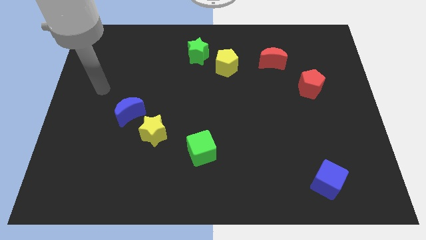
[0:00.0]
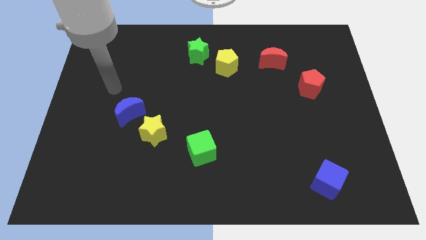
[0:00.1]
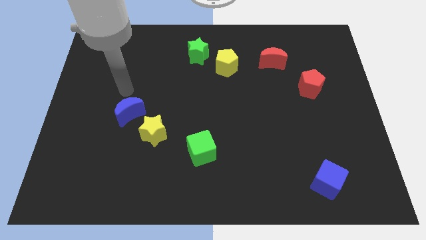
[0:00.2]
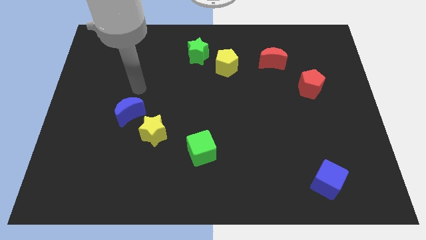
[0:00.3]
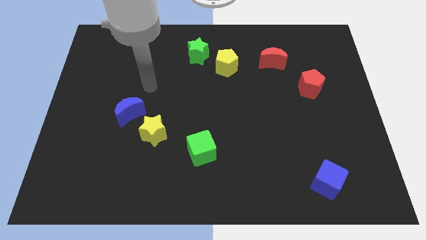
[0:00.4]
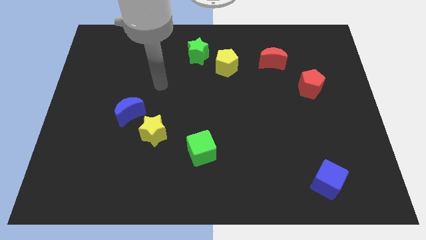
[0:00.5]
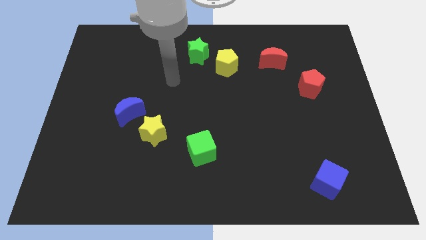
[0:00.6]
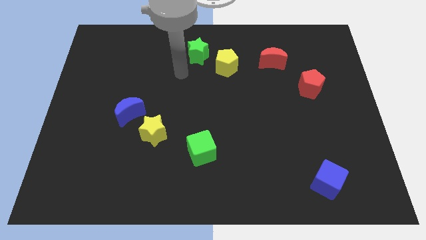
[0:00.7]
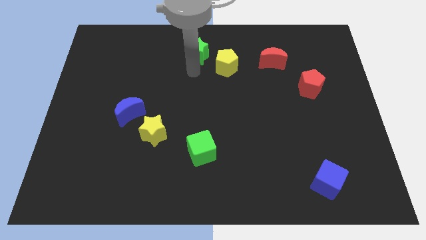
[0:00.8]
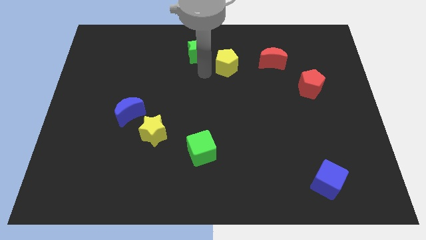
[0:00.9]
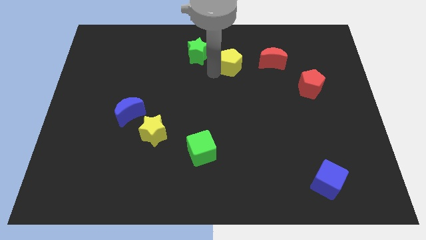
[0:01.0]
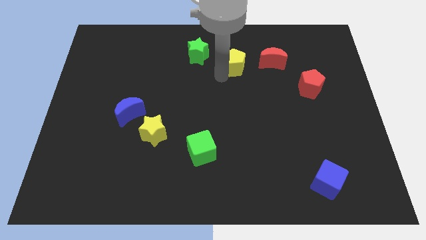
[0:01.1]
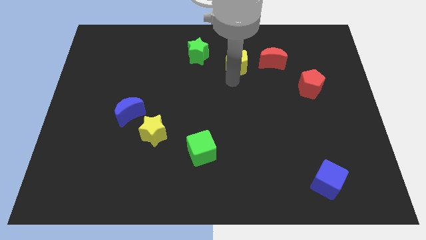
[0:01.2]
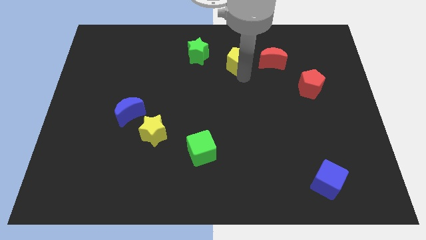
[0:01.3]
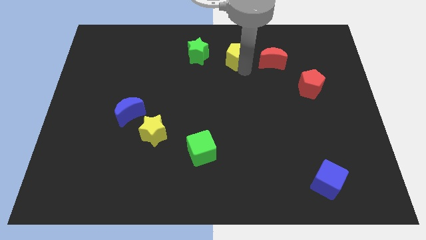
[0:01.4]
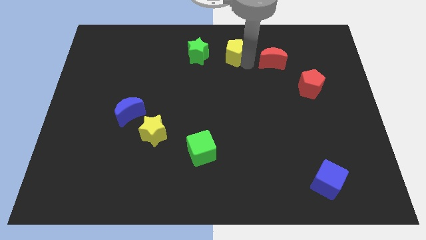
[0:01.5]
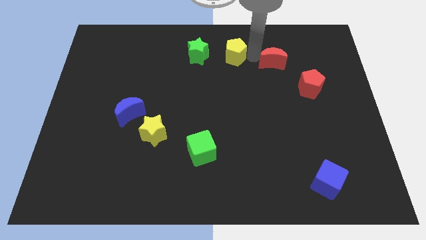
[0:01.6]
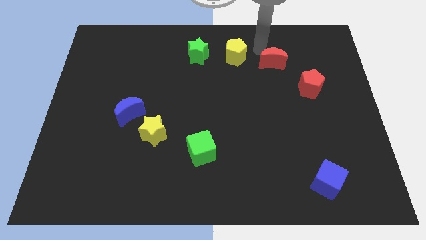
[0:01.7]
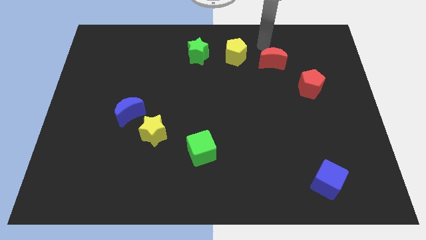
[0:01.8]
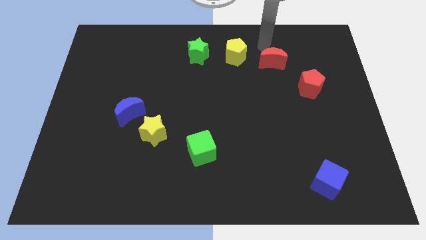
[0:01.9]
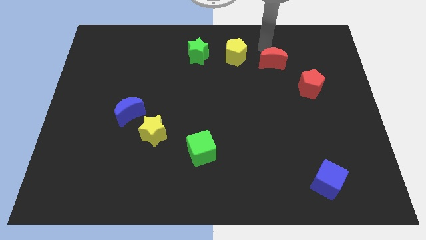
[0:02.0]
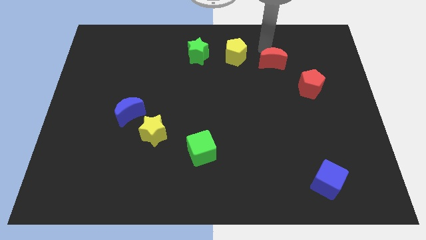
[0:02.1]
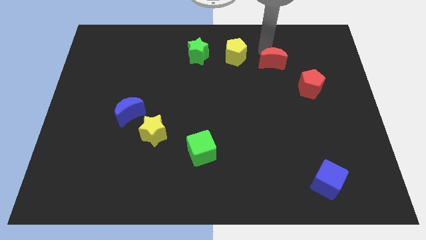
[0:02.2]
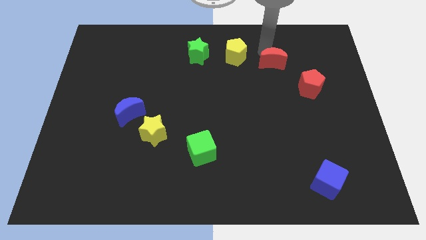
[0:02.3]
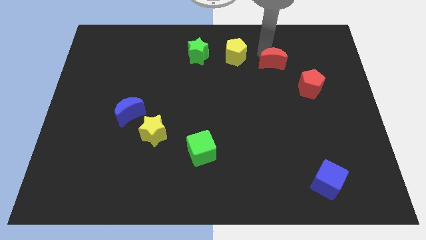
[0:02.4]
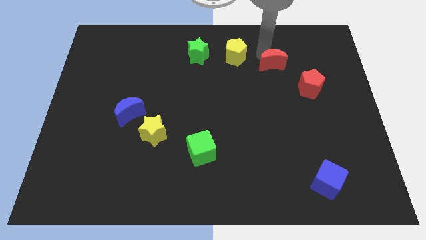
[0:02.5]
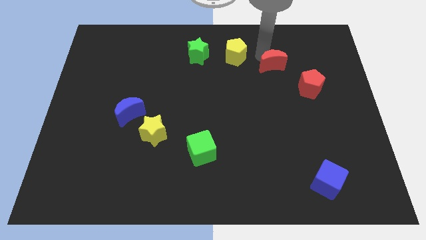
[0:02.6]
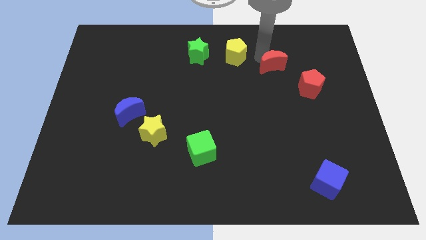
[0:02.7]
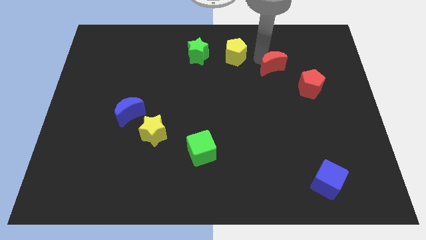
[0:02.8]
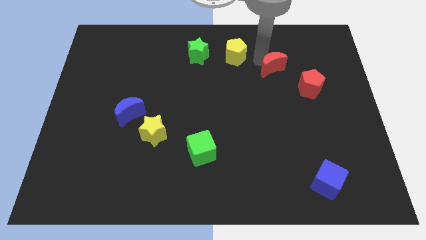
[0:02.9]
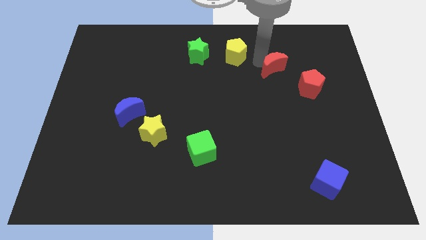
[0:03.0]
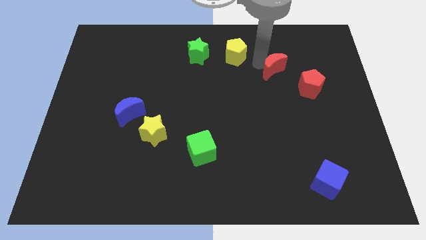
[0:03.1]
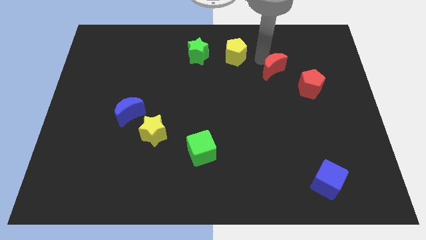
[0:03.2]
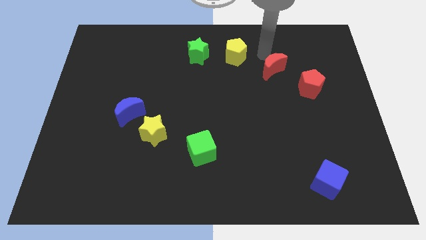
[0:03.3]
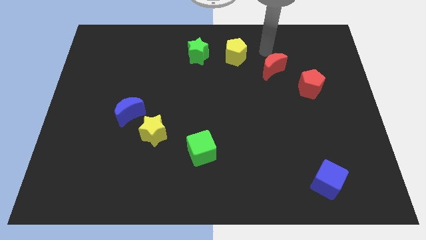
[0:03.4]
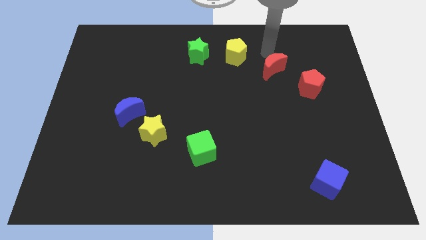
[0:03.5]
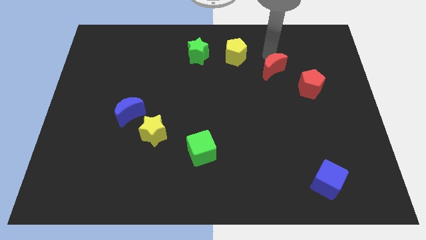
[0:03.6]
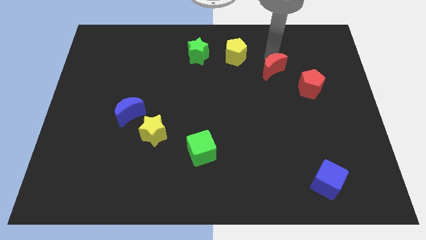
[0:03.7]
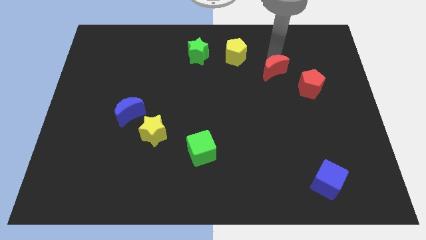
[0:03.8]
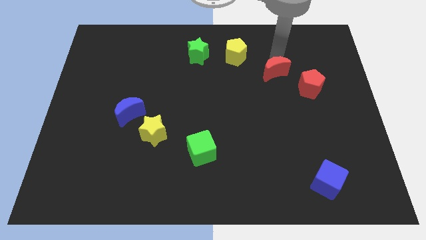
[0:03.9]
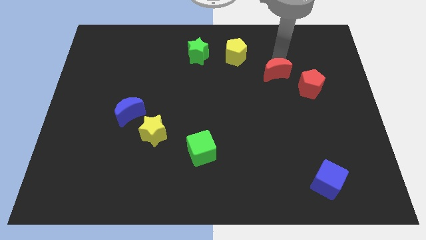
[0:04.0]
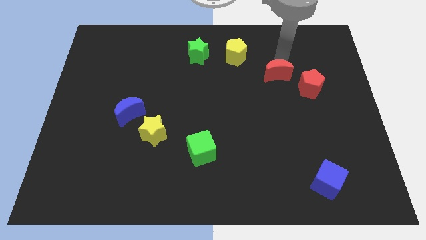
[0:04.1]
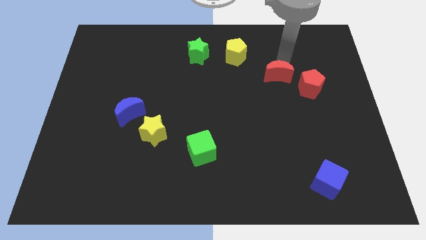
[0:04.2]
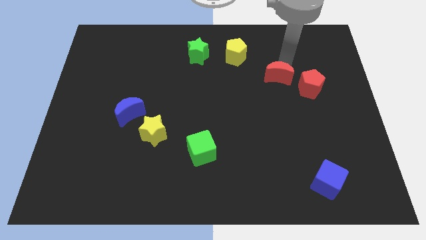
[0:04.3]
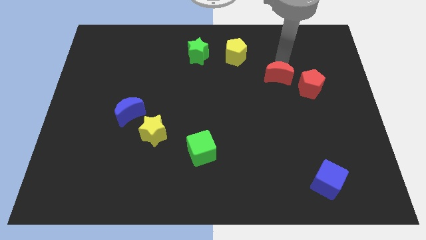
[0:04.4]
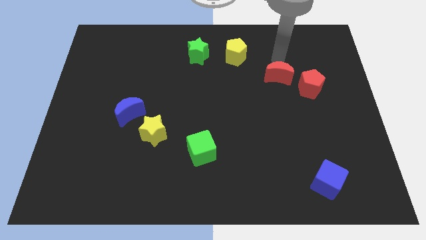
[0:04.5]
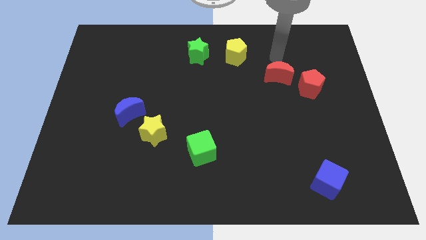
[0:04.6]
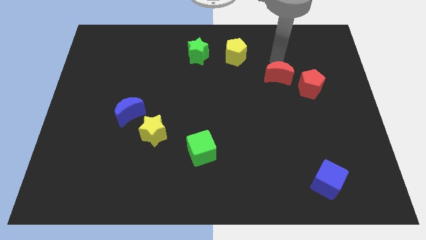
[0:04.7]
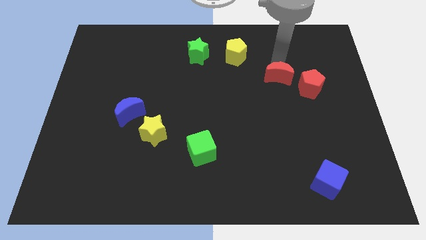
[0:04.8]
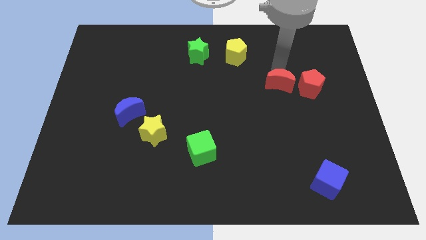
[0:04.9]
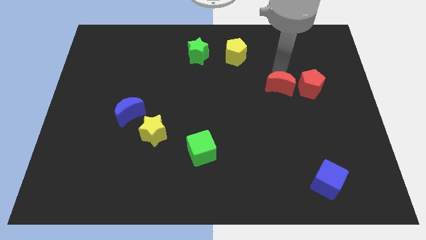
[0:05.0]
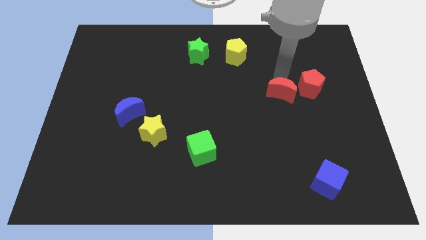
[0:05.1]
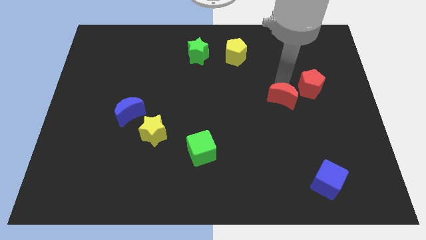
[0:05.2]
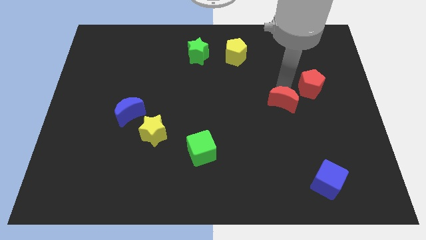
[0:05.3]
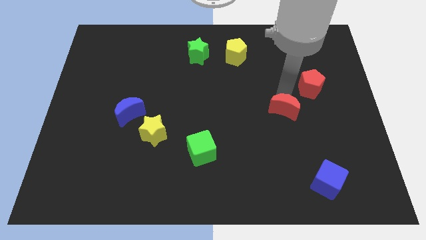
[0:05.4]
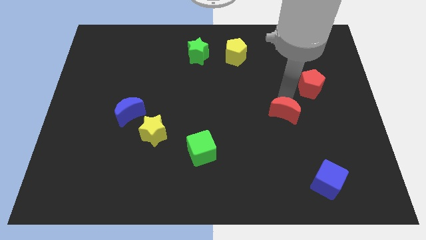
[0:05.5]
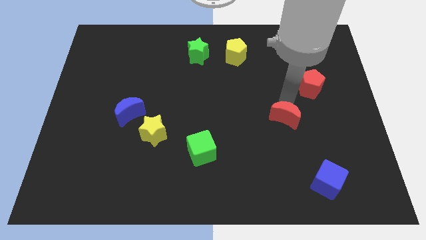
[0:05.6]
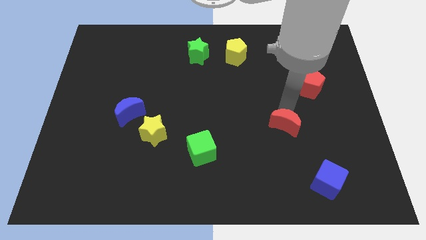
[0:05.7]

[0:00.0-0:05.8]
slide the red moon downwards

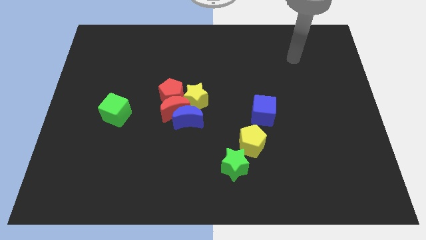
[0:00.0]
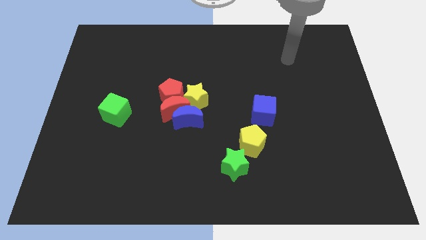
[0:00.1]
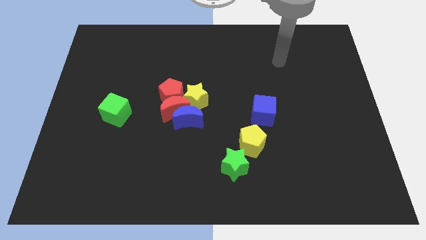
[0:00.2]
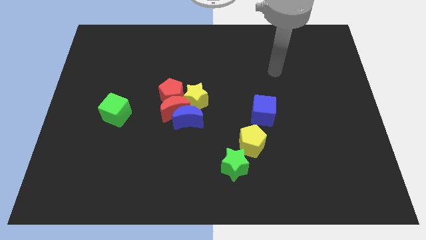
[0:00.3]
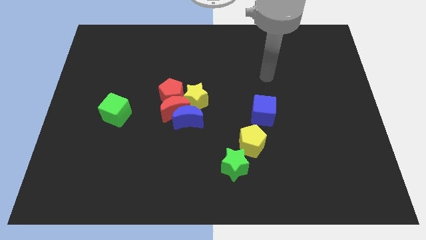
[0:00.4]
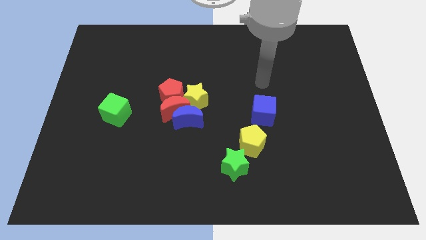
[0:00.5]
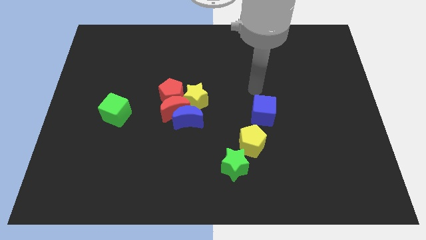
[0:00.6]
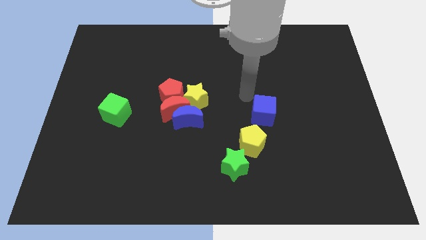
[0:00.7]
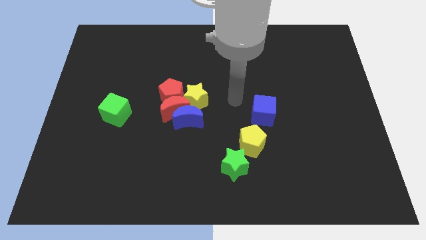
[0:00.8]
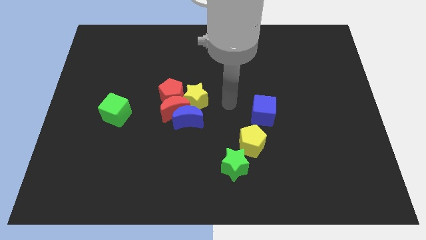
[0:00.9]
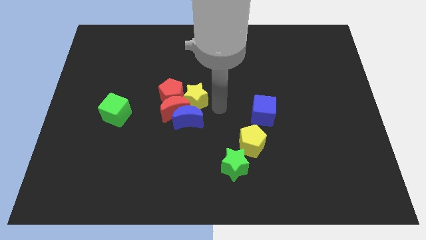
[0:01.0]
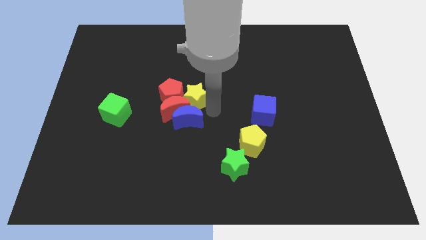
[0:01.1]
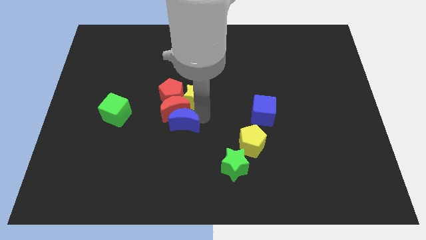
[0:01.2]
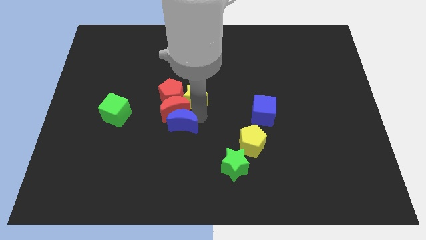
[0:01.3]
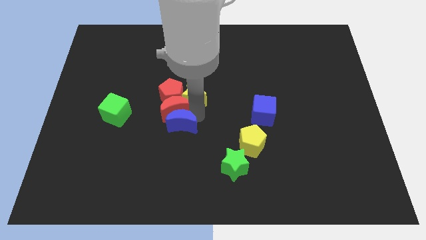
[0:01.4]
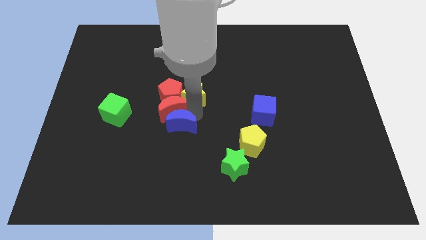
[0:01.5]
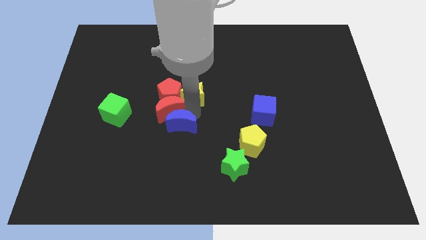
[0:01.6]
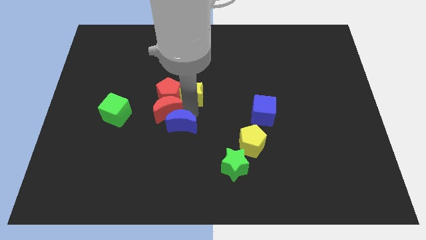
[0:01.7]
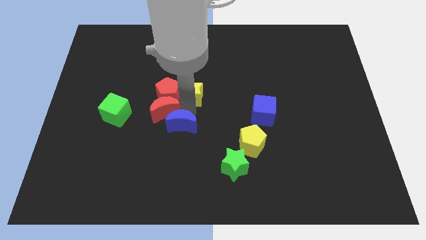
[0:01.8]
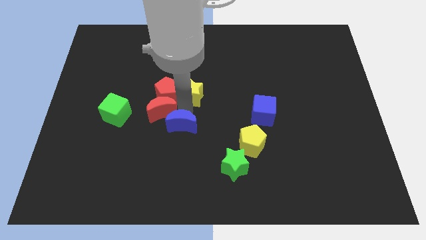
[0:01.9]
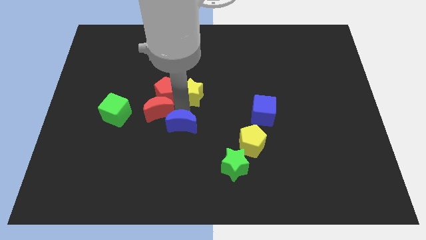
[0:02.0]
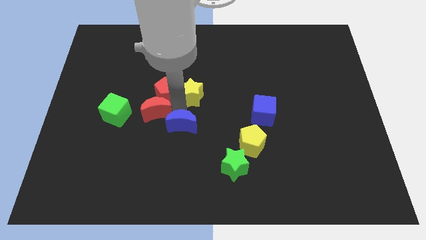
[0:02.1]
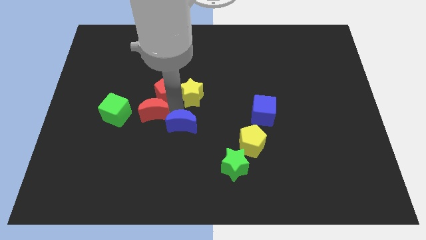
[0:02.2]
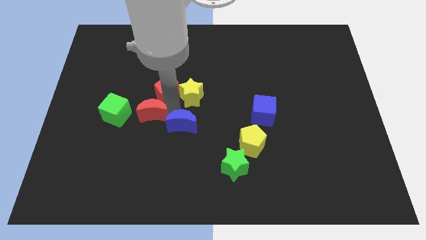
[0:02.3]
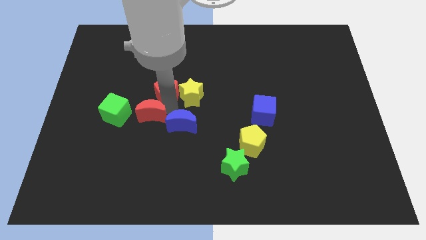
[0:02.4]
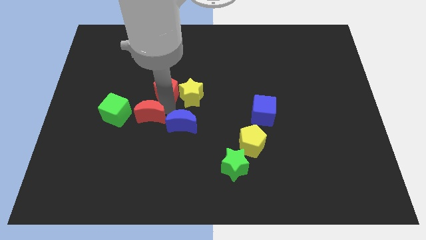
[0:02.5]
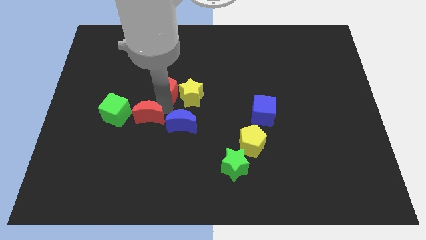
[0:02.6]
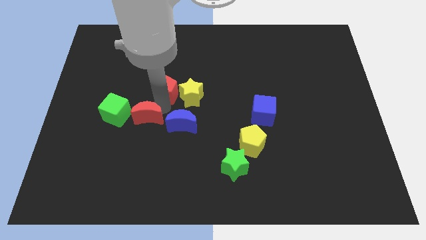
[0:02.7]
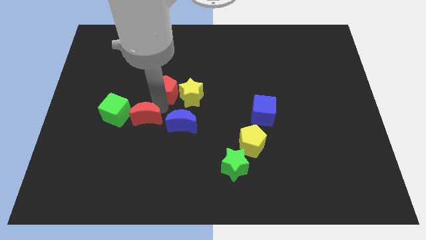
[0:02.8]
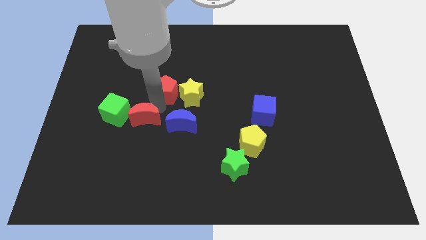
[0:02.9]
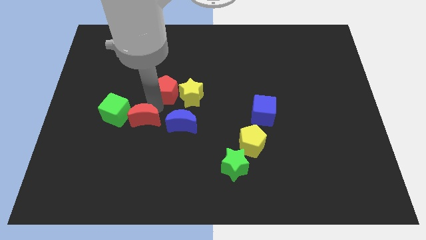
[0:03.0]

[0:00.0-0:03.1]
slightly slide the red moon left
